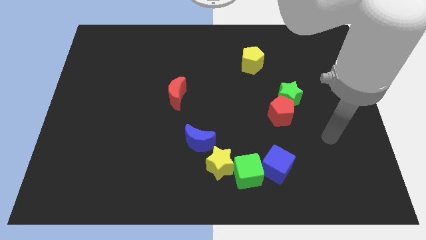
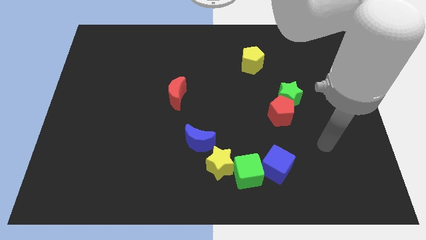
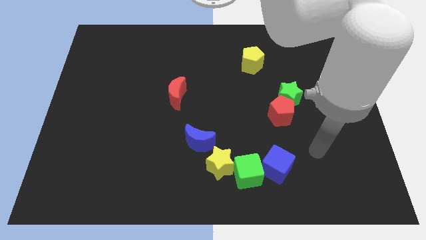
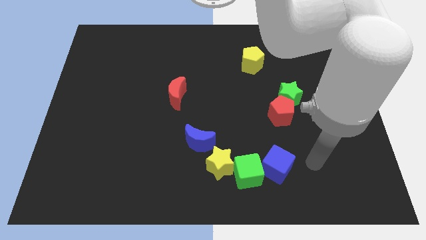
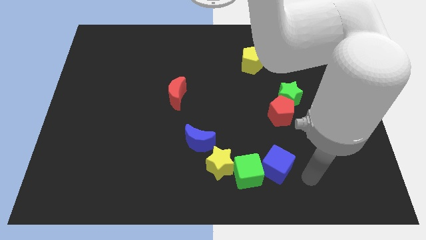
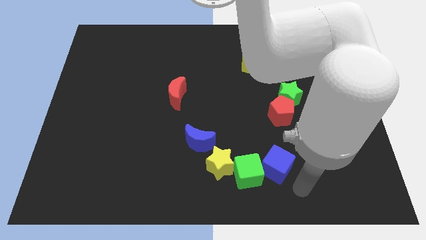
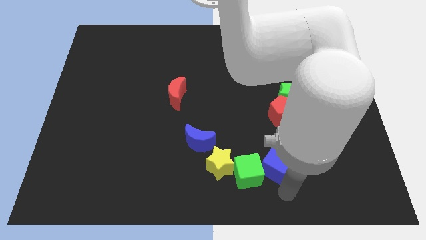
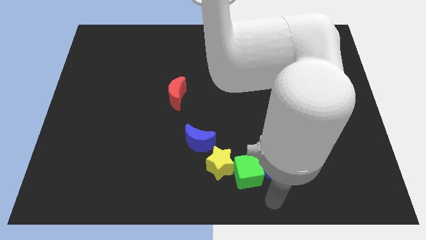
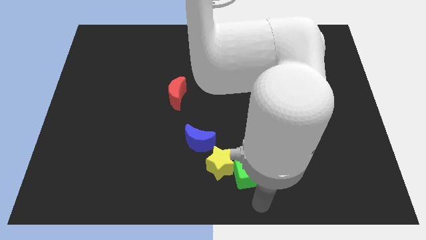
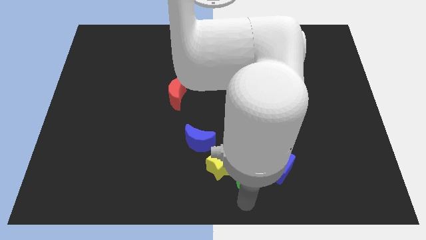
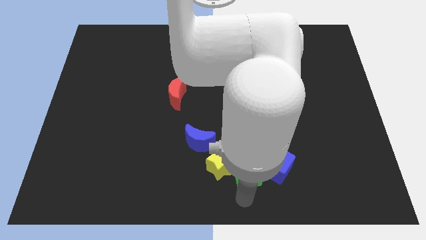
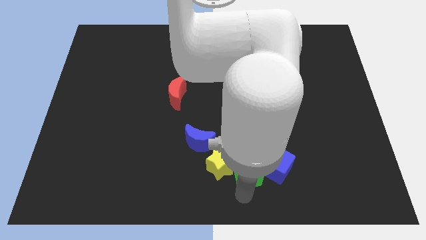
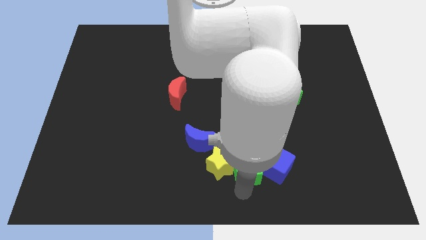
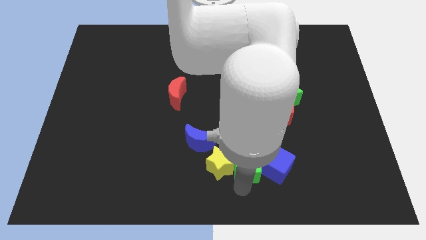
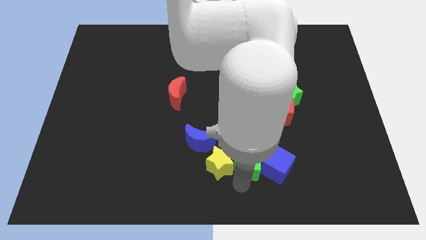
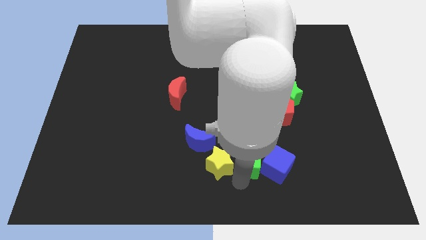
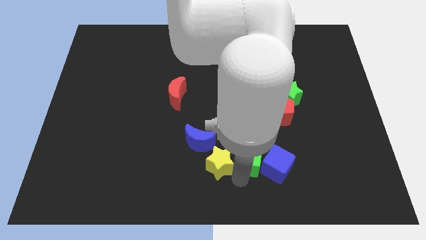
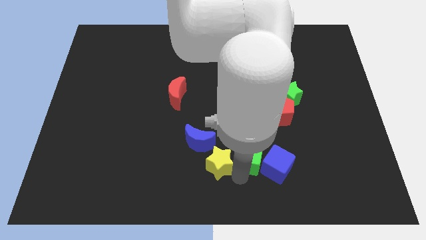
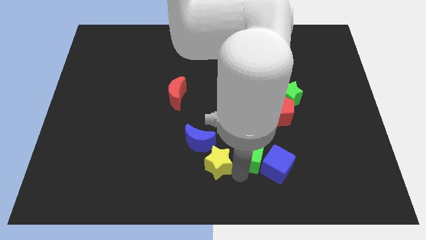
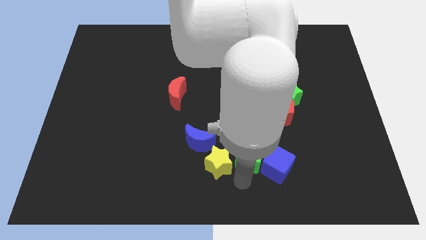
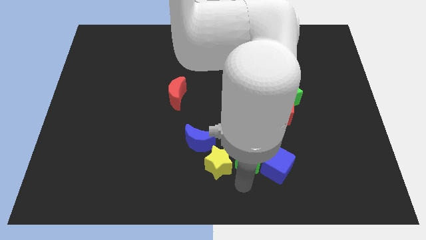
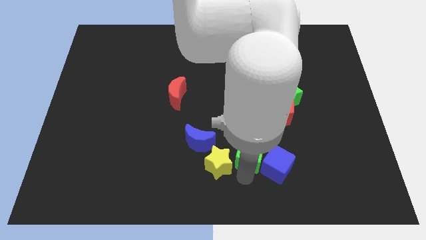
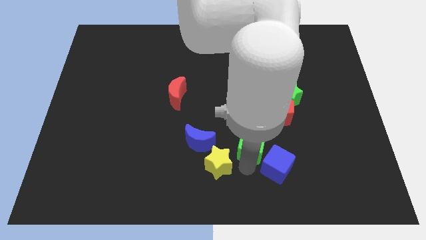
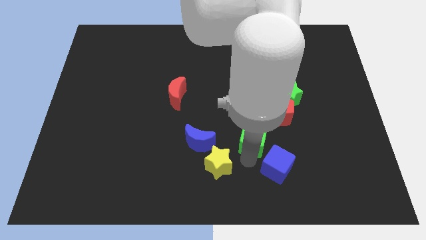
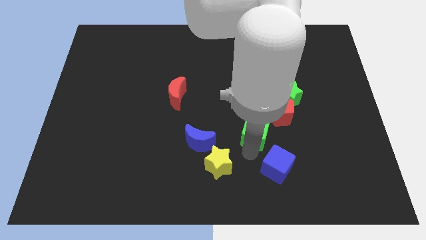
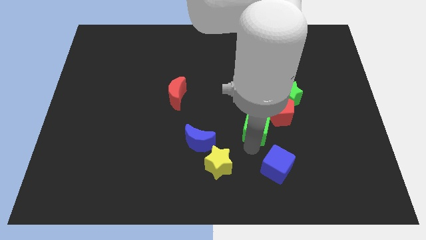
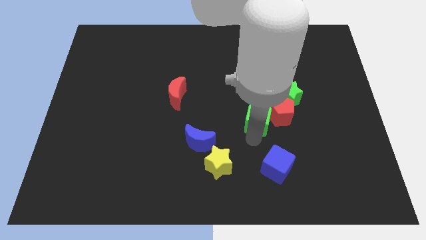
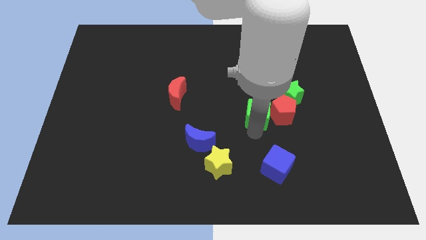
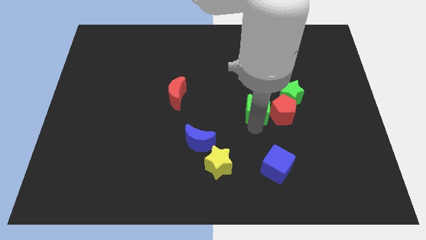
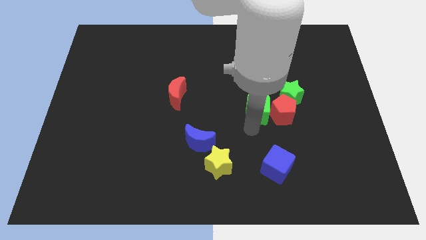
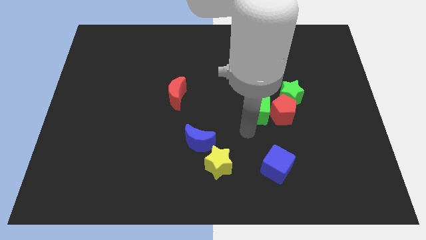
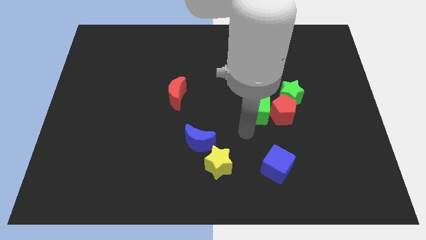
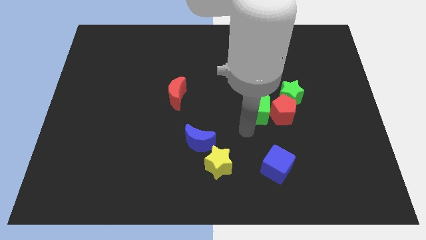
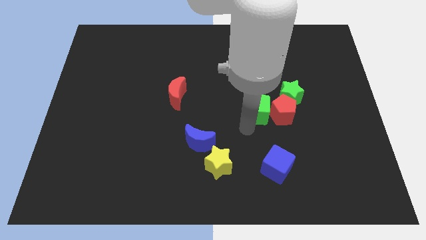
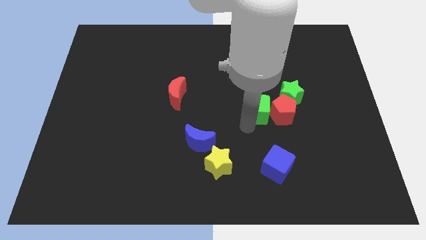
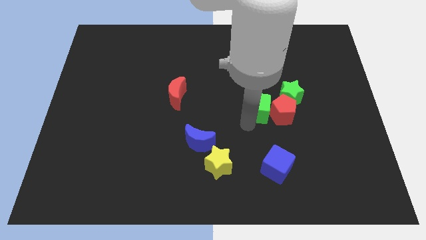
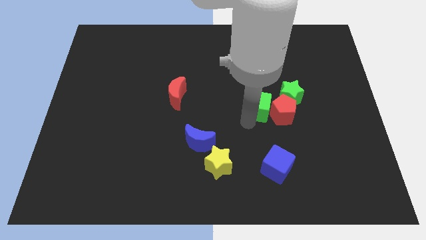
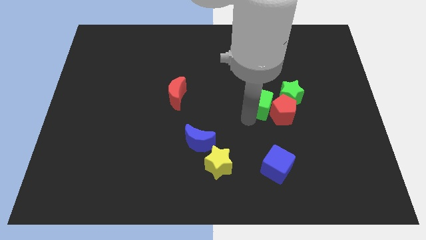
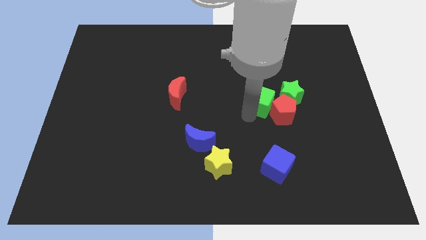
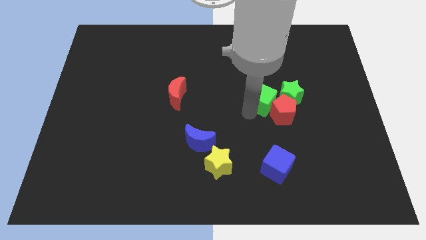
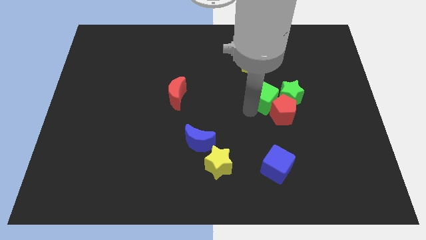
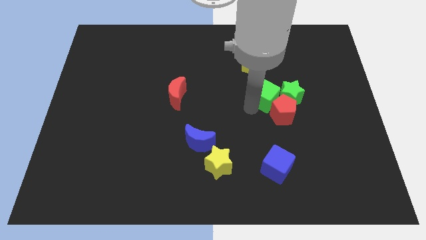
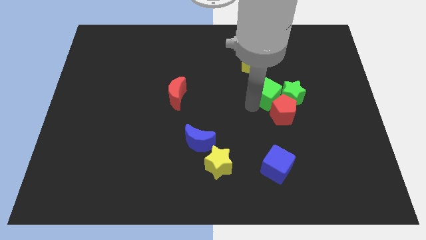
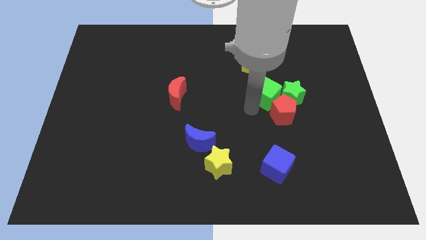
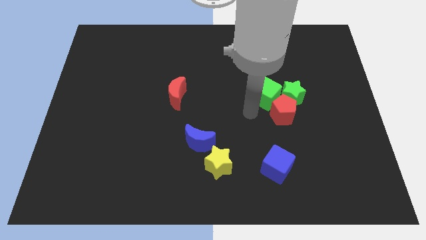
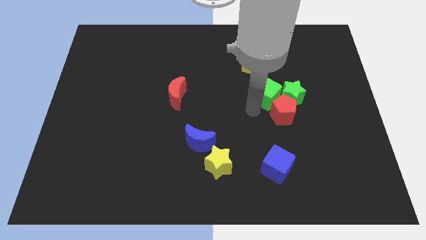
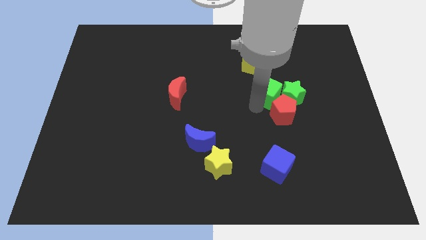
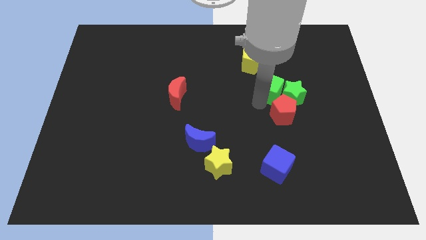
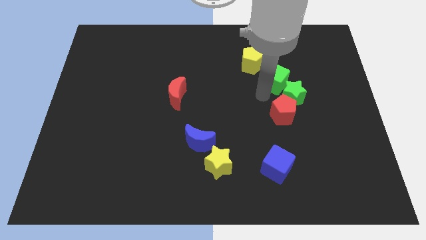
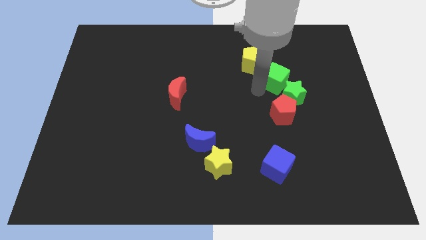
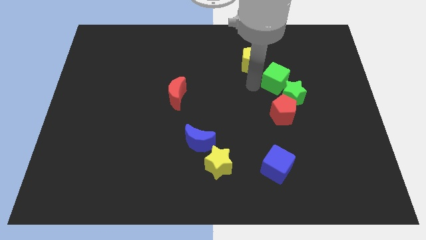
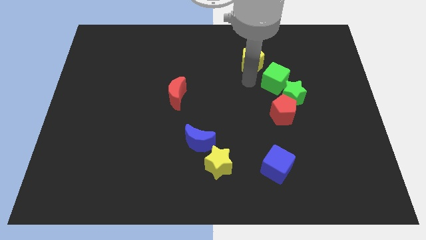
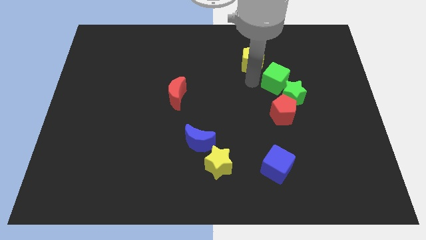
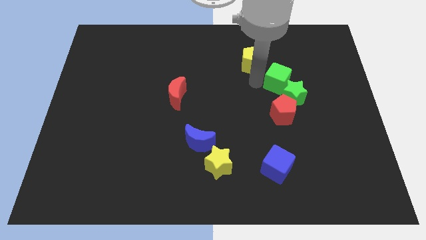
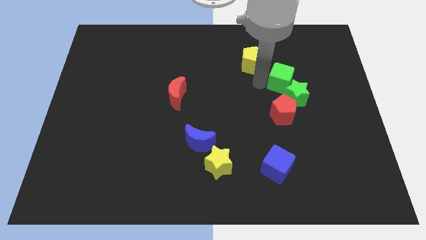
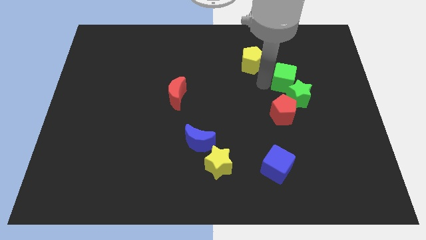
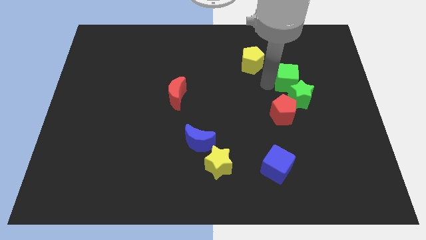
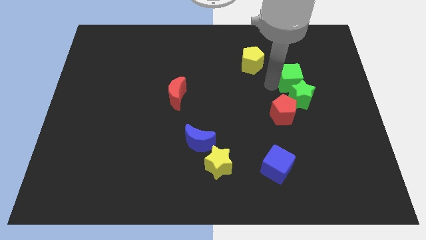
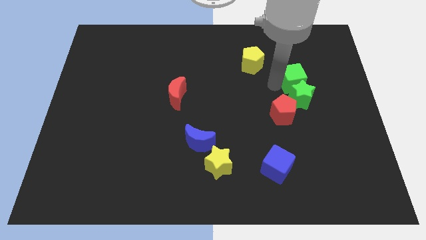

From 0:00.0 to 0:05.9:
slide the green cube diagonally up and to the right of the green star
